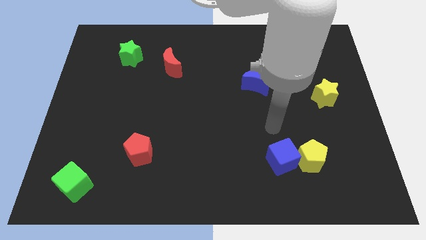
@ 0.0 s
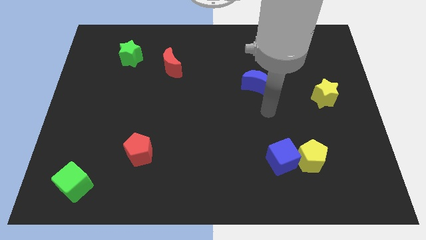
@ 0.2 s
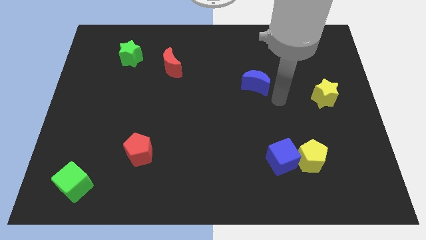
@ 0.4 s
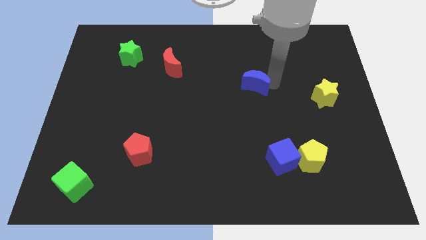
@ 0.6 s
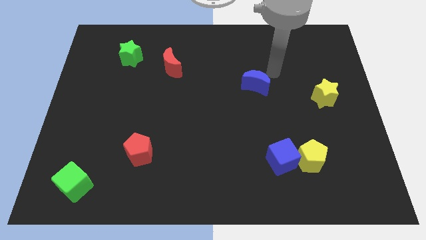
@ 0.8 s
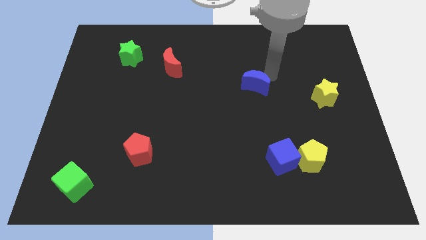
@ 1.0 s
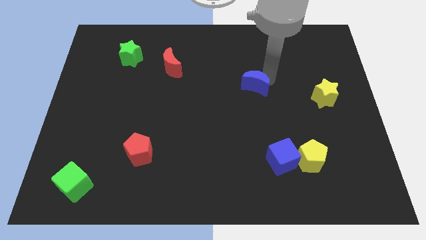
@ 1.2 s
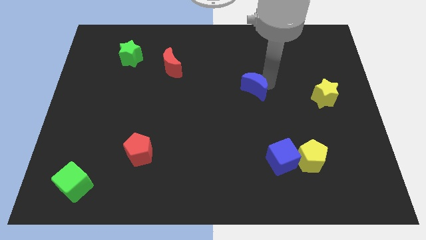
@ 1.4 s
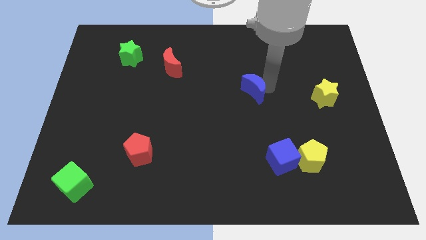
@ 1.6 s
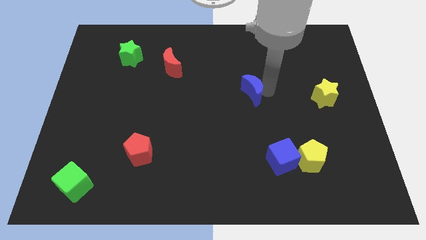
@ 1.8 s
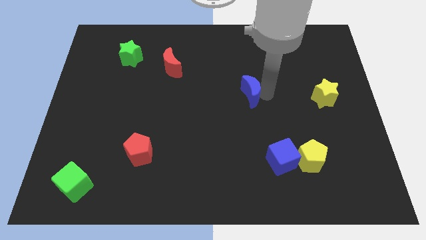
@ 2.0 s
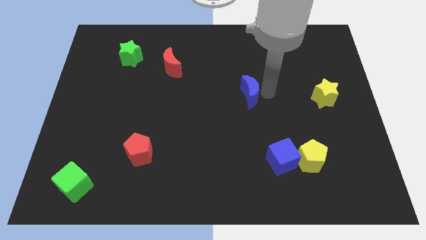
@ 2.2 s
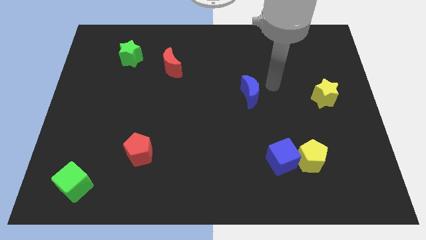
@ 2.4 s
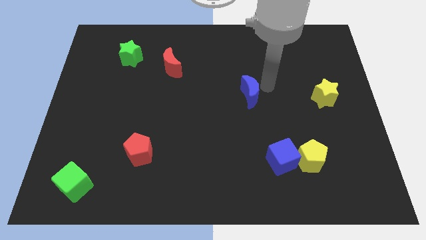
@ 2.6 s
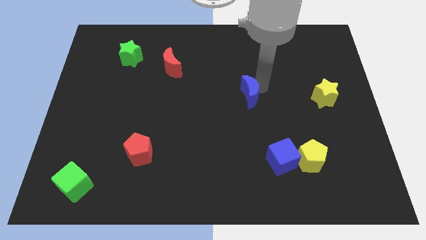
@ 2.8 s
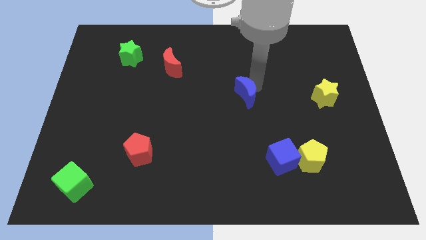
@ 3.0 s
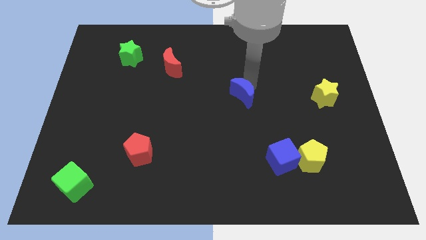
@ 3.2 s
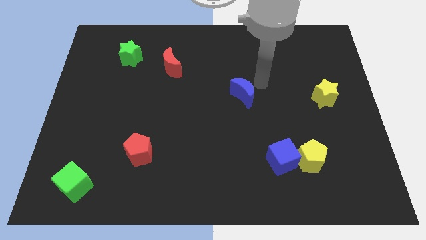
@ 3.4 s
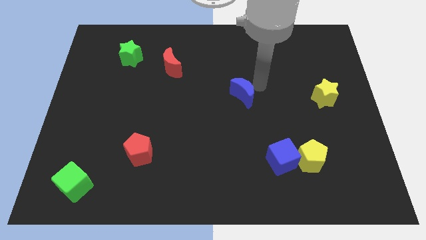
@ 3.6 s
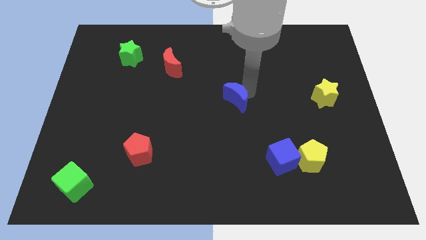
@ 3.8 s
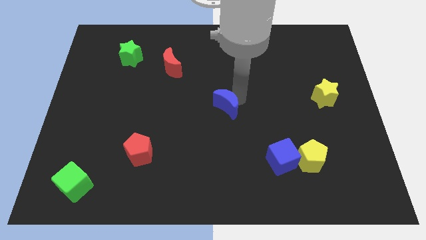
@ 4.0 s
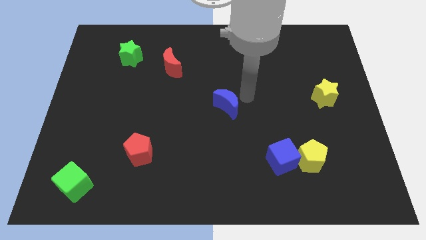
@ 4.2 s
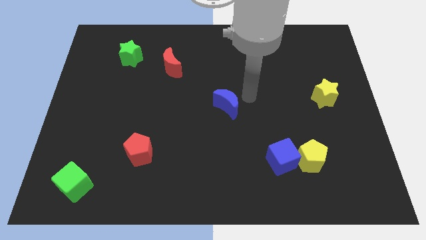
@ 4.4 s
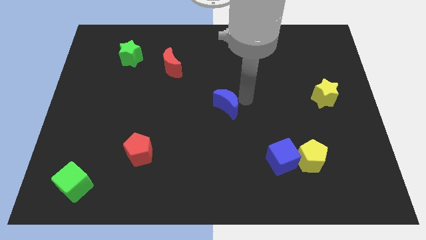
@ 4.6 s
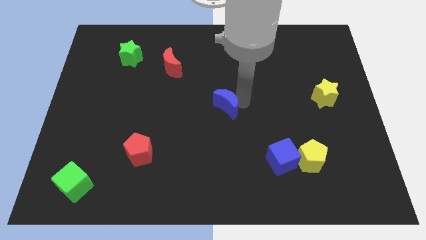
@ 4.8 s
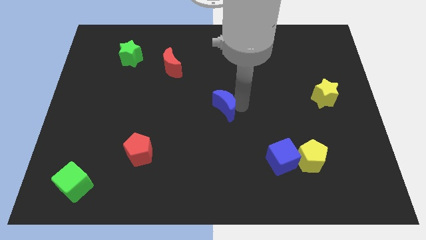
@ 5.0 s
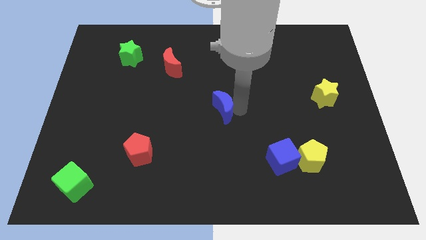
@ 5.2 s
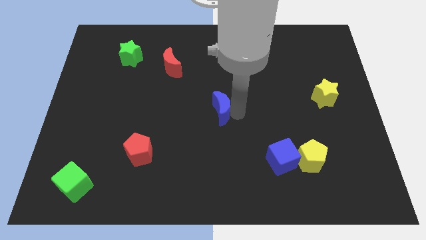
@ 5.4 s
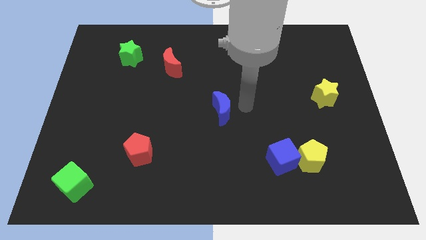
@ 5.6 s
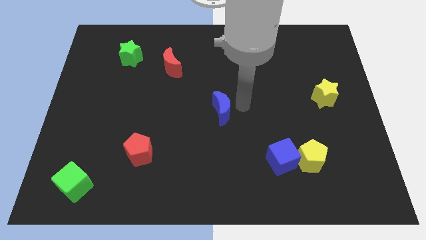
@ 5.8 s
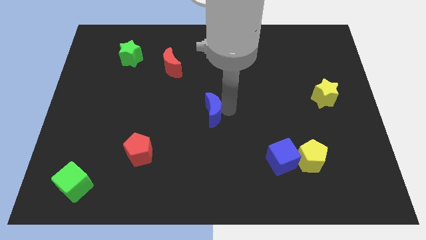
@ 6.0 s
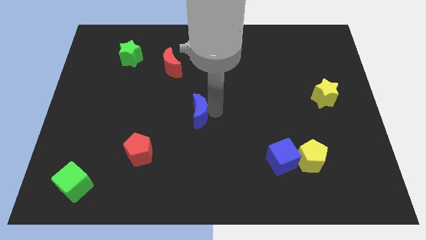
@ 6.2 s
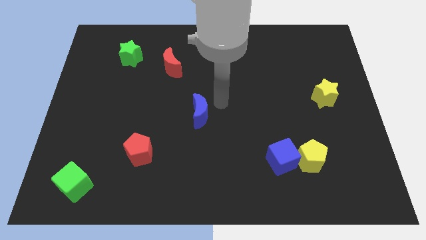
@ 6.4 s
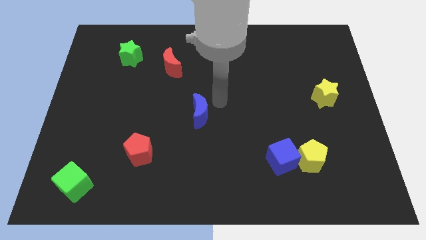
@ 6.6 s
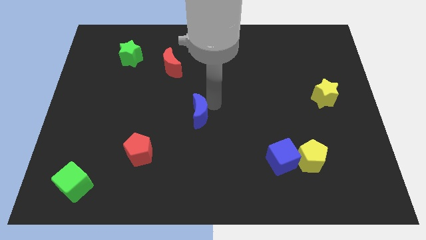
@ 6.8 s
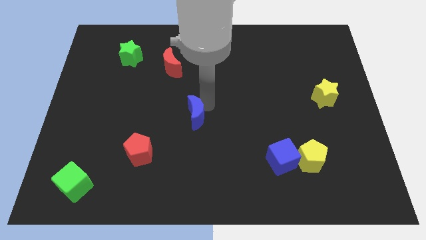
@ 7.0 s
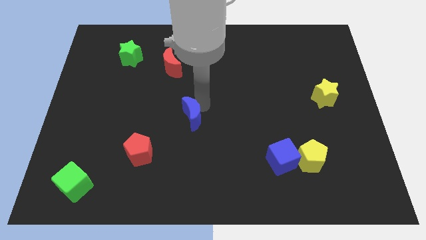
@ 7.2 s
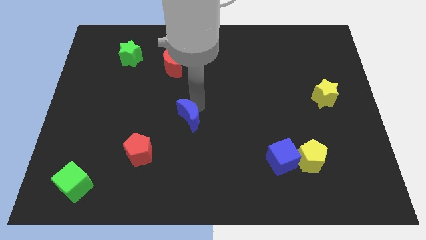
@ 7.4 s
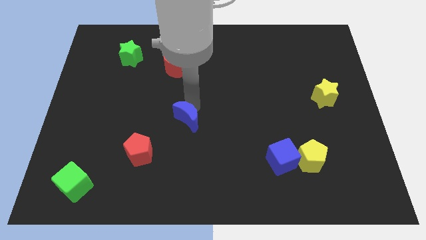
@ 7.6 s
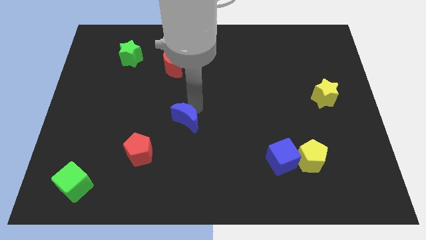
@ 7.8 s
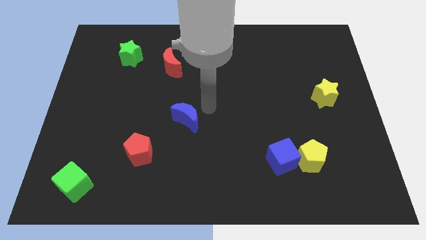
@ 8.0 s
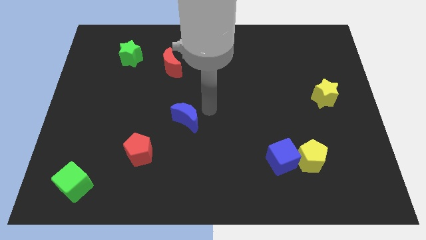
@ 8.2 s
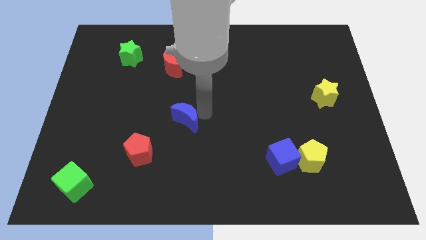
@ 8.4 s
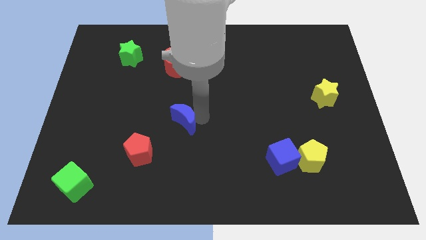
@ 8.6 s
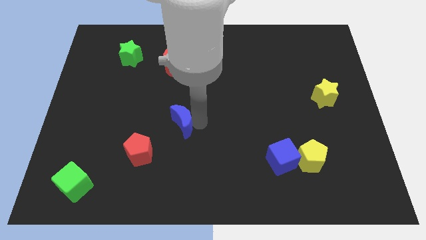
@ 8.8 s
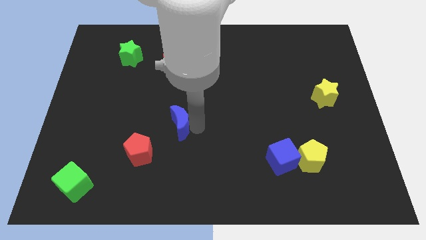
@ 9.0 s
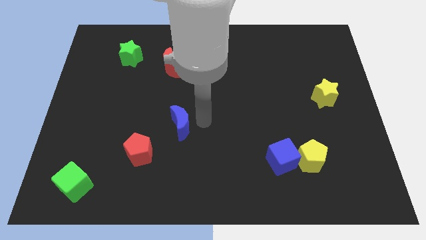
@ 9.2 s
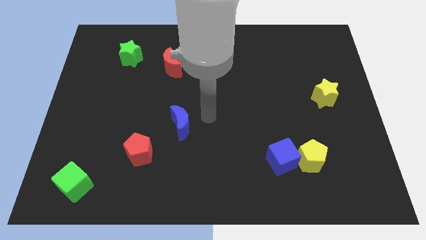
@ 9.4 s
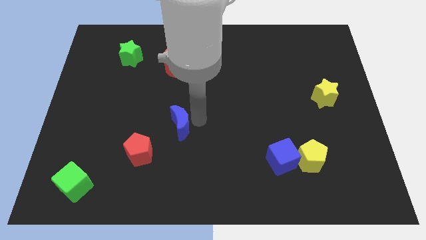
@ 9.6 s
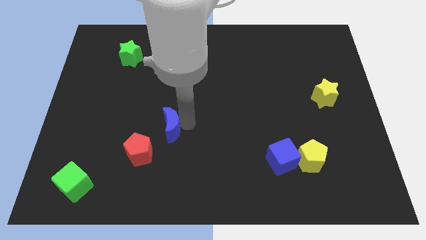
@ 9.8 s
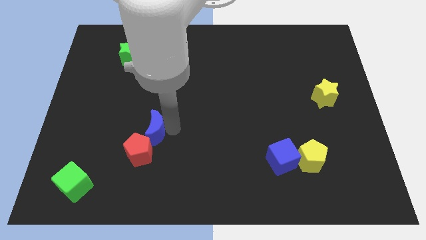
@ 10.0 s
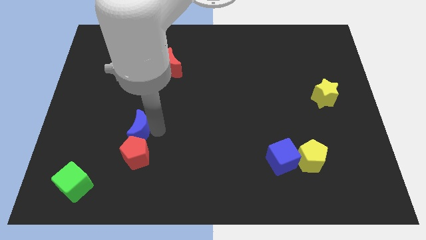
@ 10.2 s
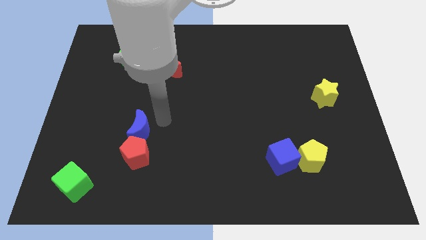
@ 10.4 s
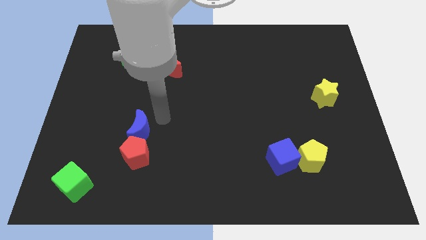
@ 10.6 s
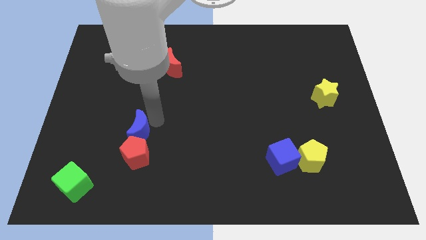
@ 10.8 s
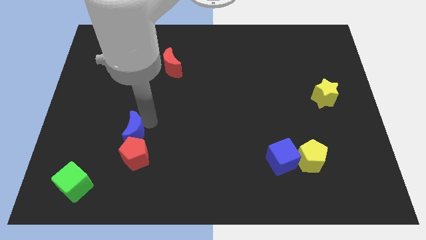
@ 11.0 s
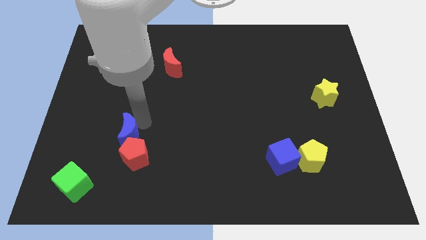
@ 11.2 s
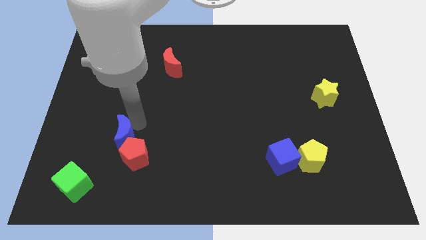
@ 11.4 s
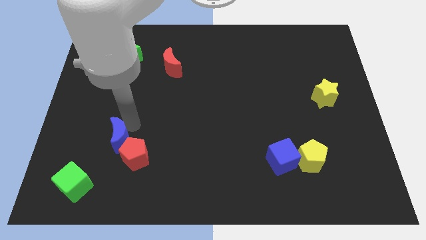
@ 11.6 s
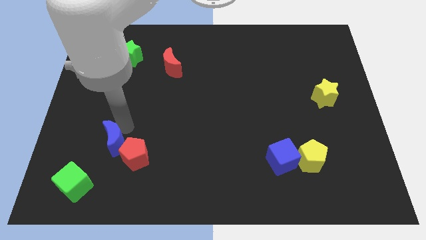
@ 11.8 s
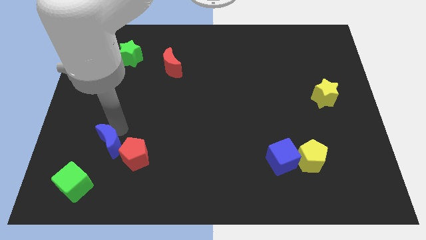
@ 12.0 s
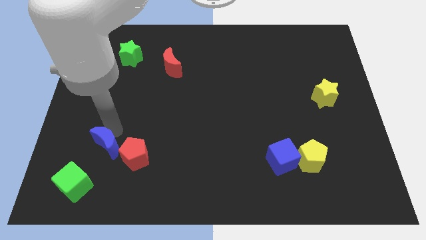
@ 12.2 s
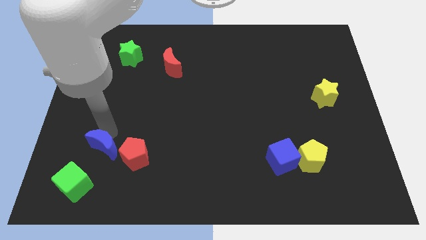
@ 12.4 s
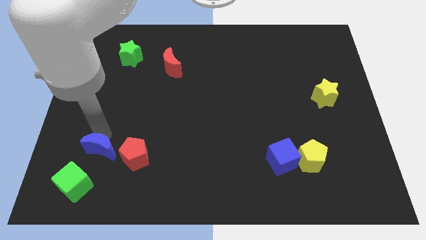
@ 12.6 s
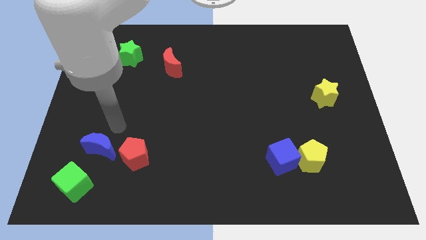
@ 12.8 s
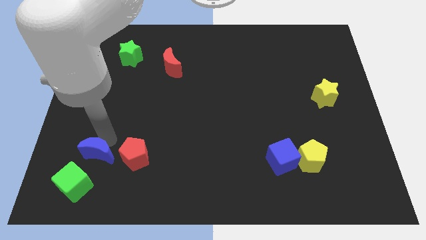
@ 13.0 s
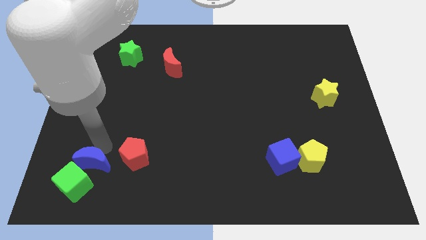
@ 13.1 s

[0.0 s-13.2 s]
push the blue moon next to the green cube
